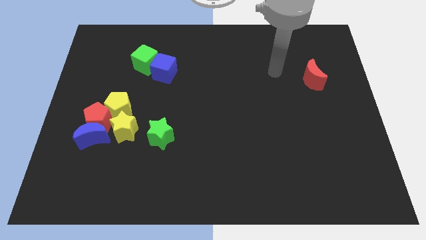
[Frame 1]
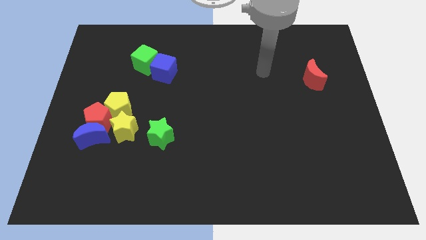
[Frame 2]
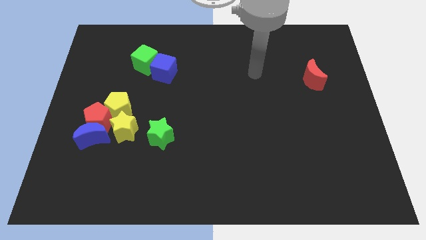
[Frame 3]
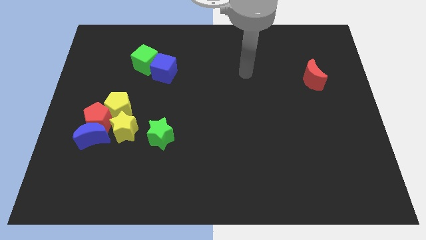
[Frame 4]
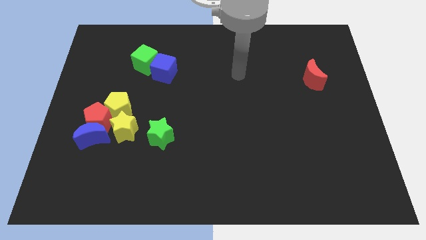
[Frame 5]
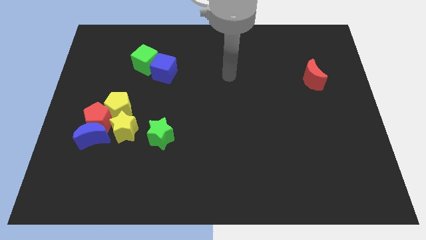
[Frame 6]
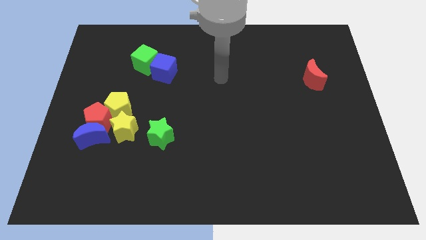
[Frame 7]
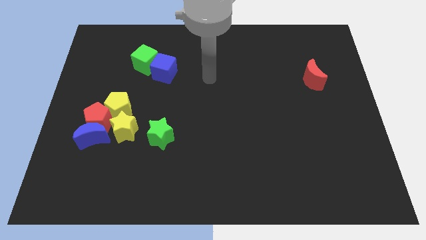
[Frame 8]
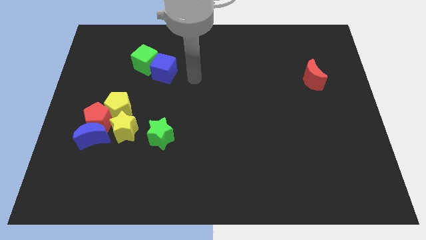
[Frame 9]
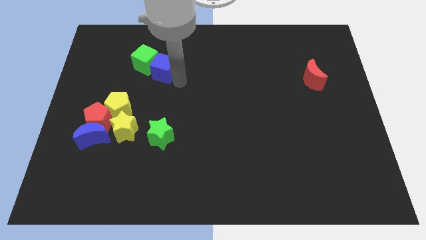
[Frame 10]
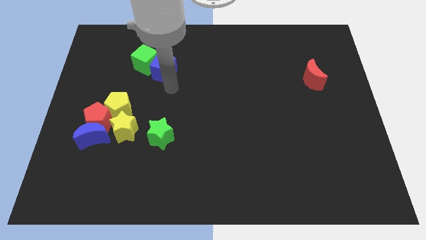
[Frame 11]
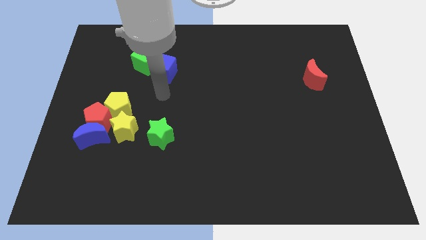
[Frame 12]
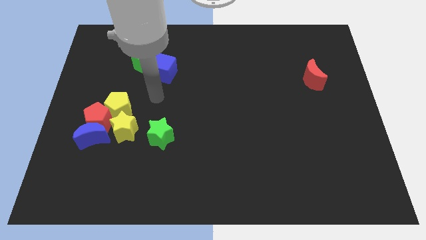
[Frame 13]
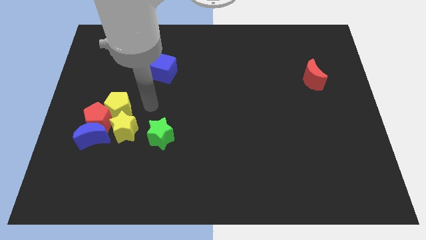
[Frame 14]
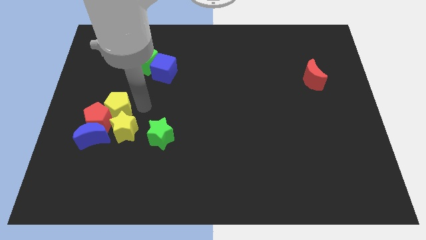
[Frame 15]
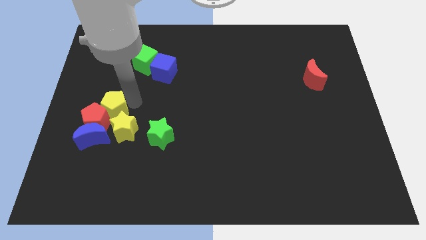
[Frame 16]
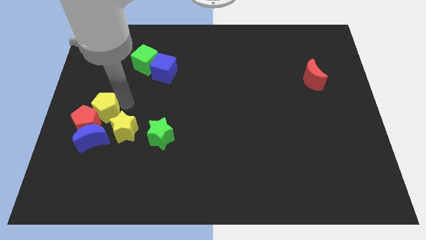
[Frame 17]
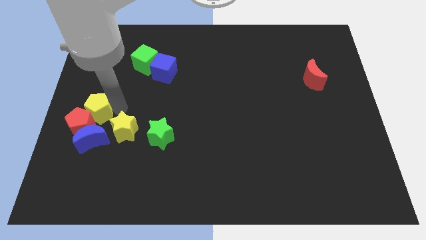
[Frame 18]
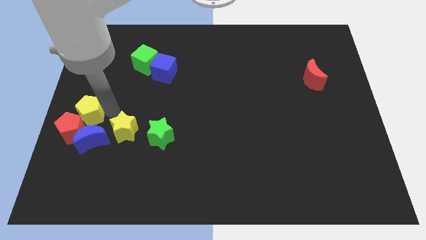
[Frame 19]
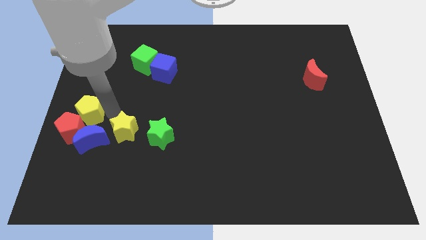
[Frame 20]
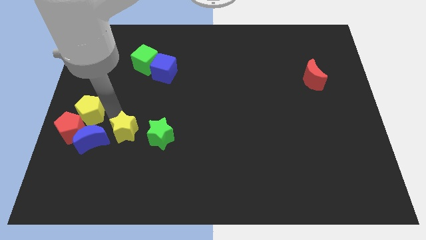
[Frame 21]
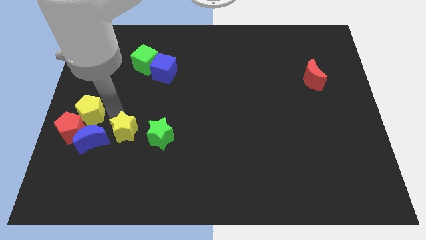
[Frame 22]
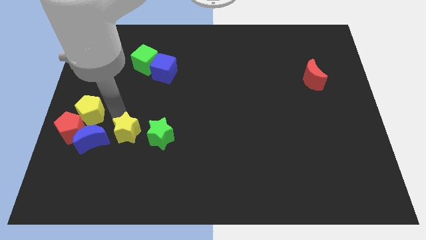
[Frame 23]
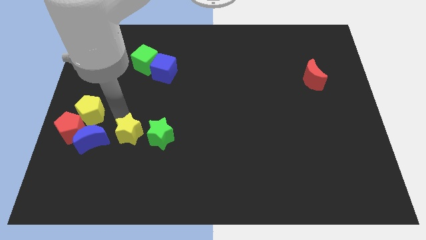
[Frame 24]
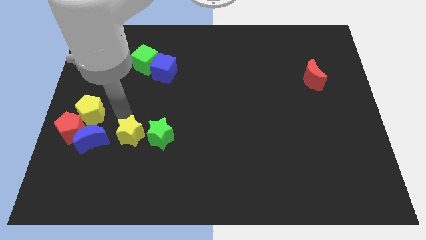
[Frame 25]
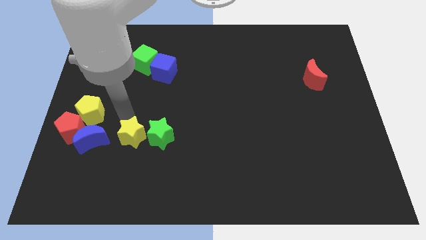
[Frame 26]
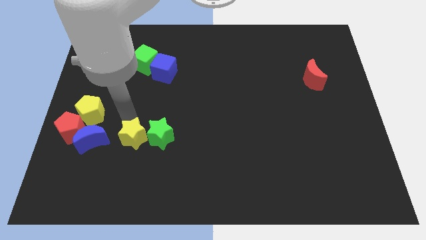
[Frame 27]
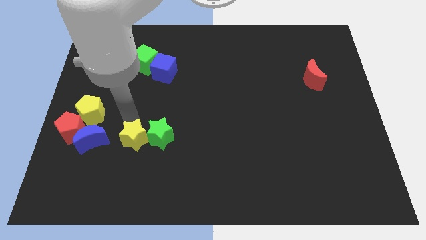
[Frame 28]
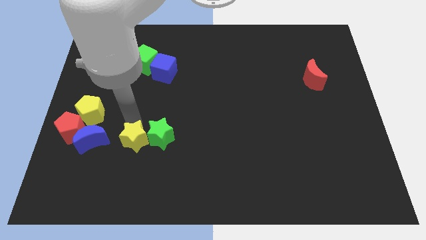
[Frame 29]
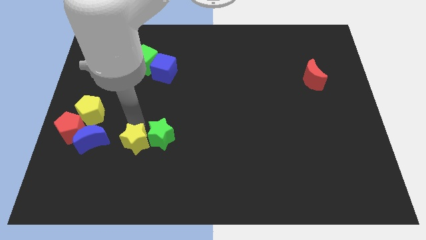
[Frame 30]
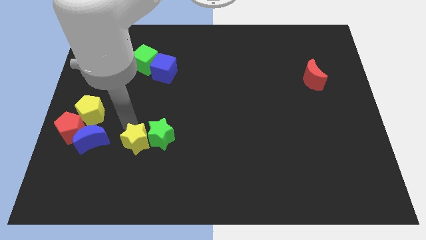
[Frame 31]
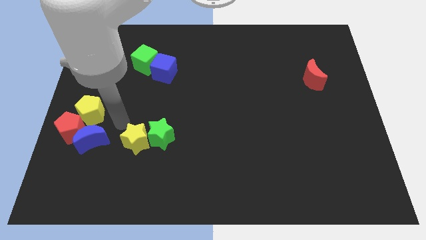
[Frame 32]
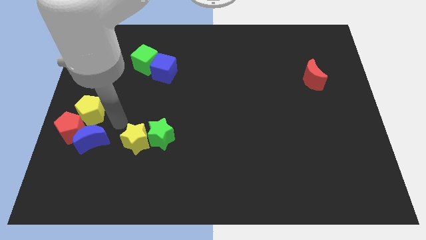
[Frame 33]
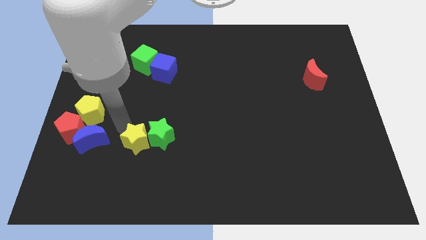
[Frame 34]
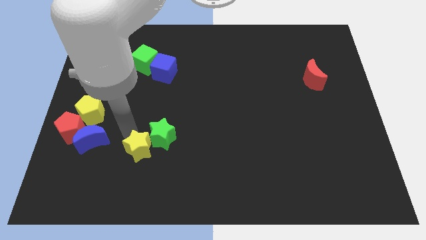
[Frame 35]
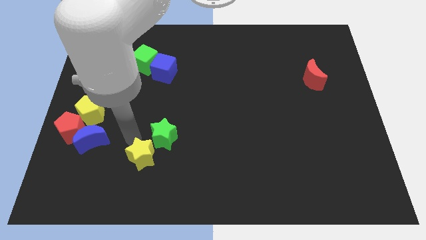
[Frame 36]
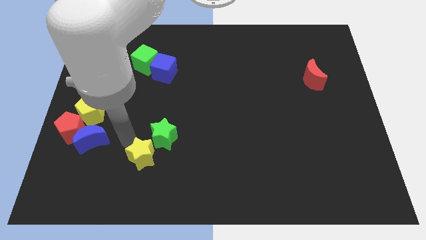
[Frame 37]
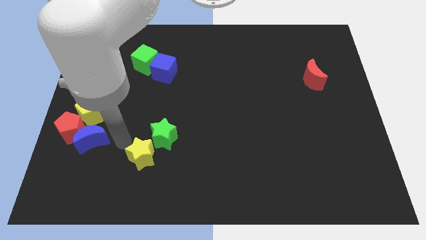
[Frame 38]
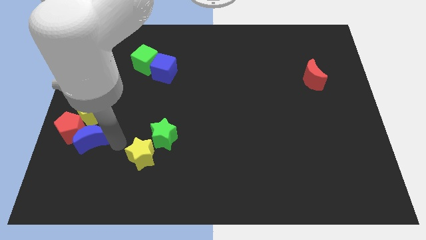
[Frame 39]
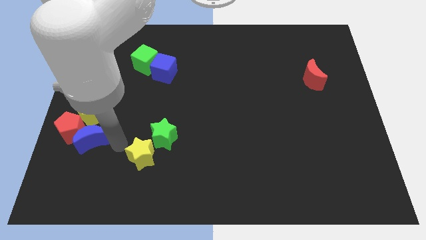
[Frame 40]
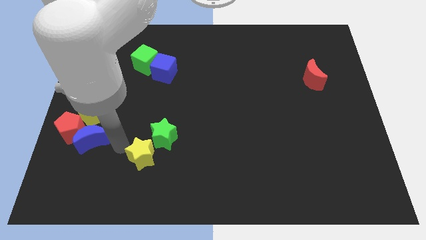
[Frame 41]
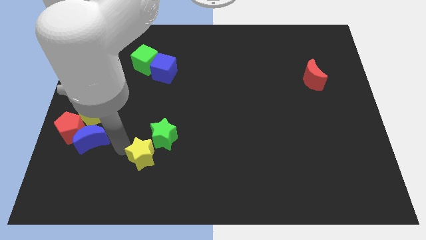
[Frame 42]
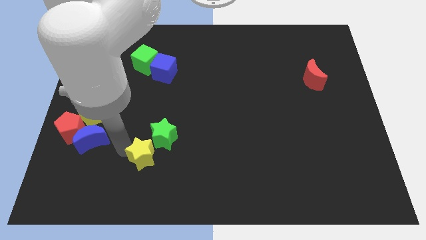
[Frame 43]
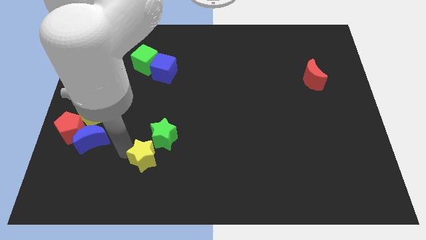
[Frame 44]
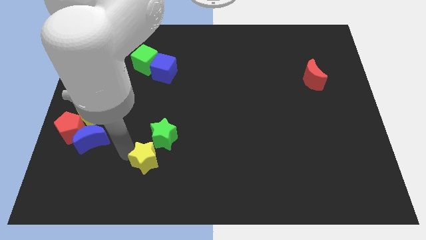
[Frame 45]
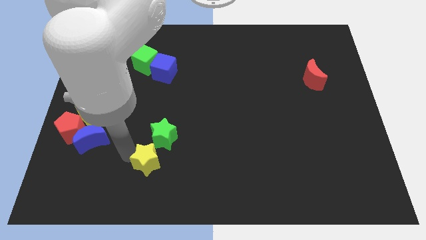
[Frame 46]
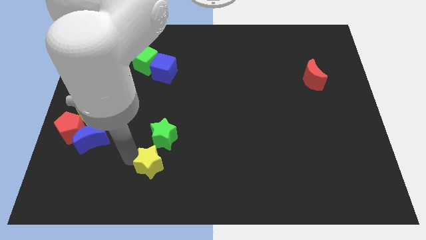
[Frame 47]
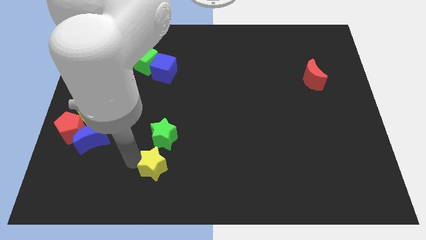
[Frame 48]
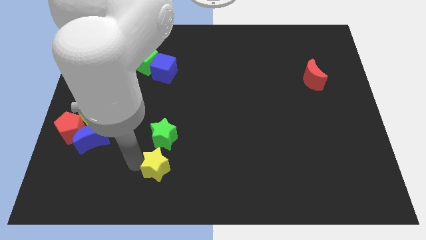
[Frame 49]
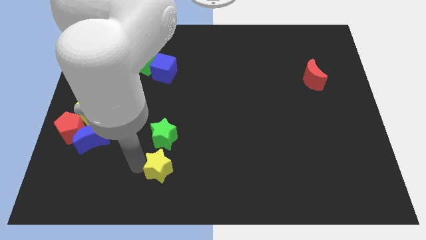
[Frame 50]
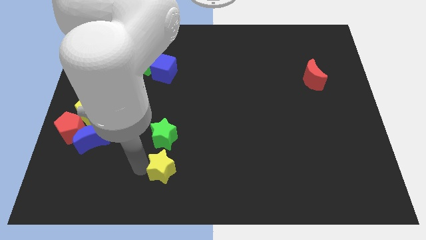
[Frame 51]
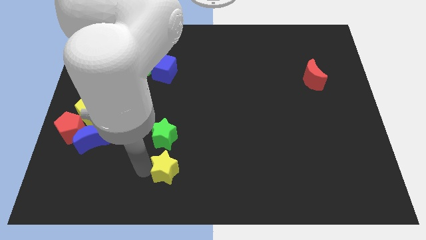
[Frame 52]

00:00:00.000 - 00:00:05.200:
slide the yellow star to the bottom

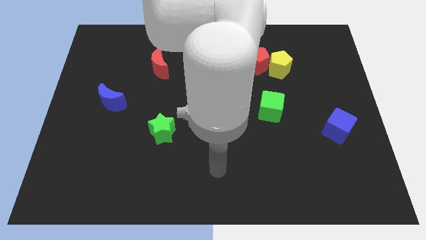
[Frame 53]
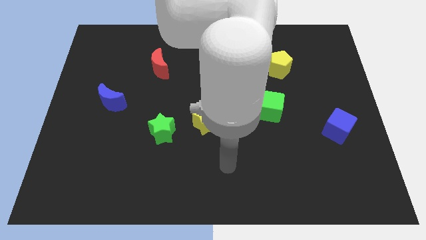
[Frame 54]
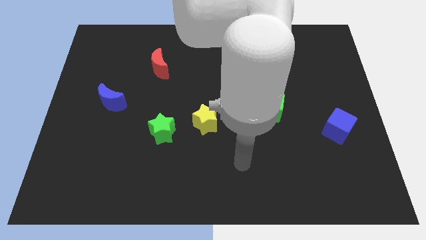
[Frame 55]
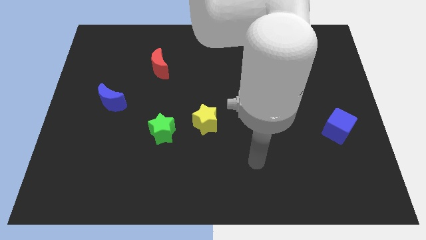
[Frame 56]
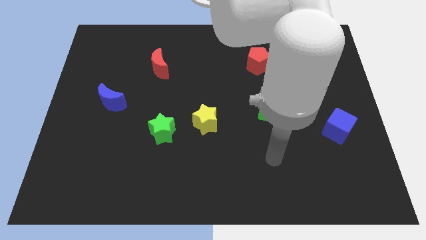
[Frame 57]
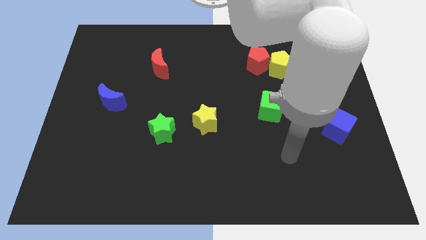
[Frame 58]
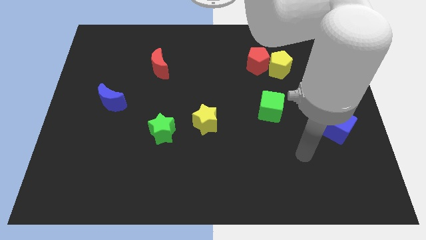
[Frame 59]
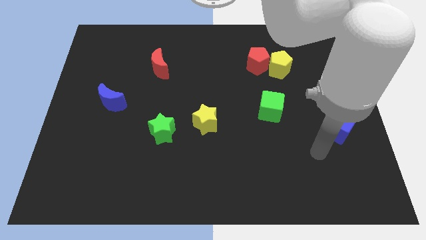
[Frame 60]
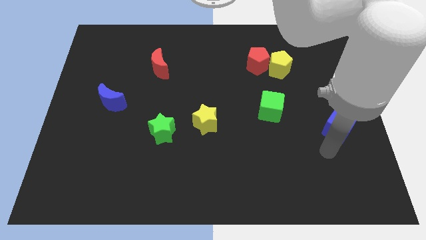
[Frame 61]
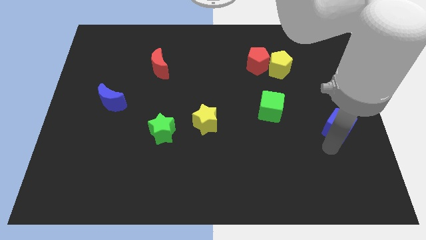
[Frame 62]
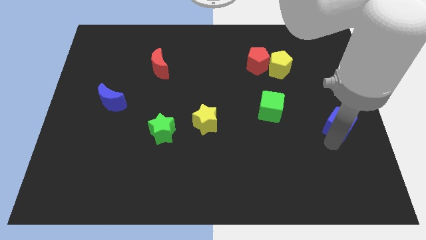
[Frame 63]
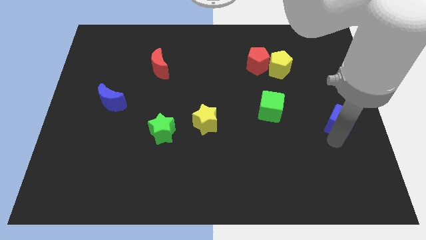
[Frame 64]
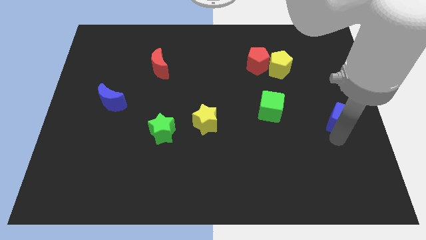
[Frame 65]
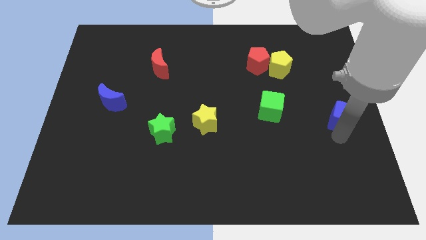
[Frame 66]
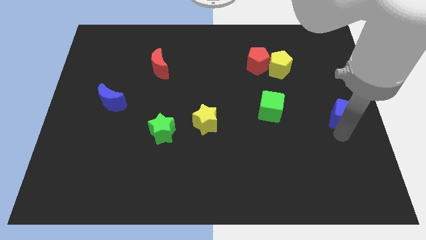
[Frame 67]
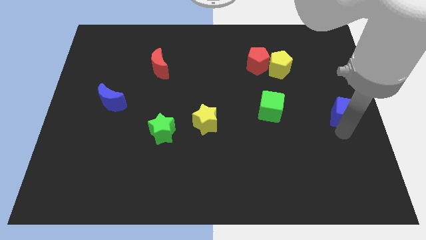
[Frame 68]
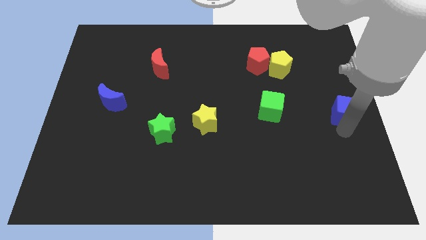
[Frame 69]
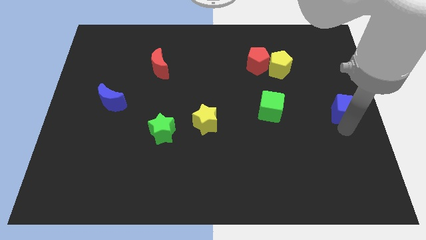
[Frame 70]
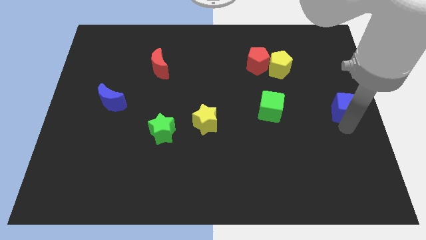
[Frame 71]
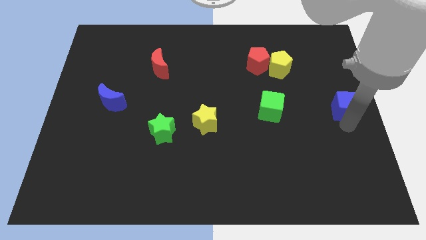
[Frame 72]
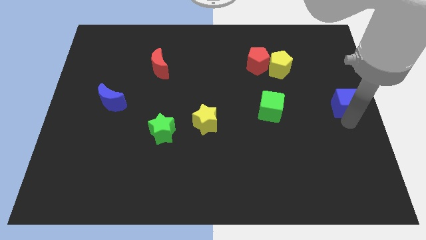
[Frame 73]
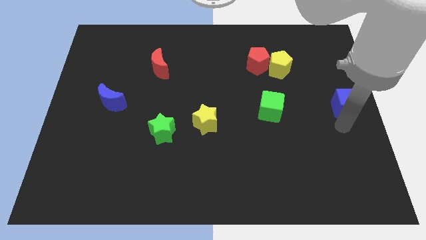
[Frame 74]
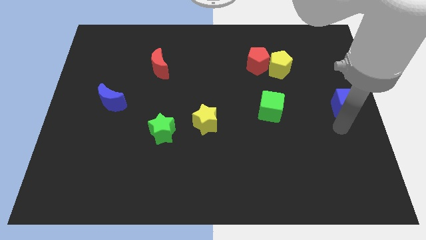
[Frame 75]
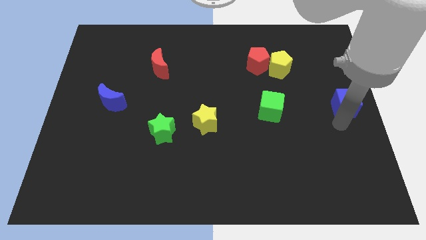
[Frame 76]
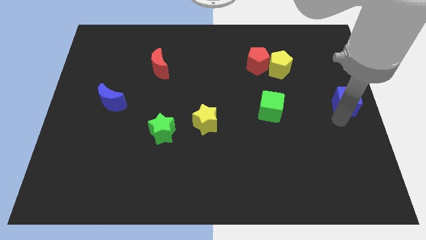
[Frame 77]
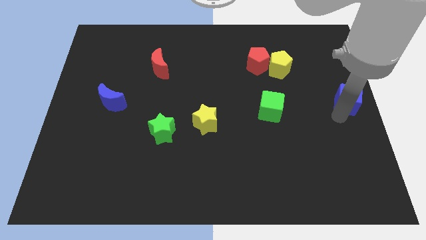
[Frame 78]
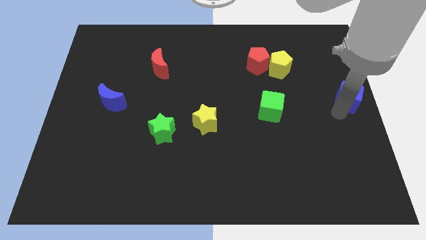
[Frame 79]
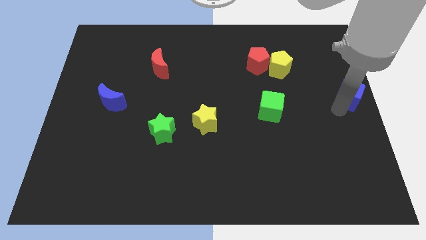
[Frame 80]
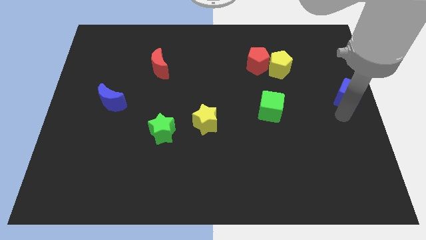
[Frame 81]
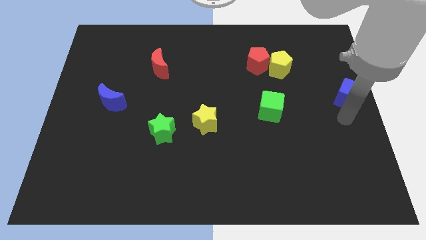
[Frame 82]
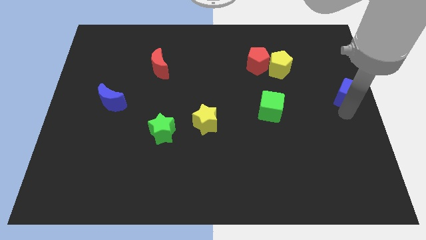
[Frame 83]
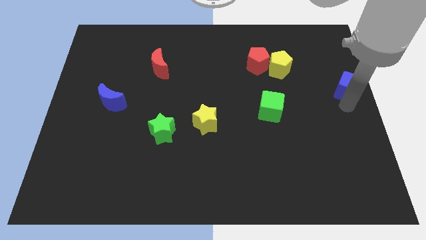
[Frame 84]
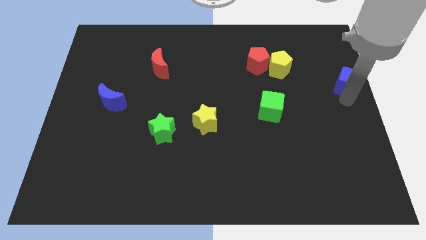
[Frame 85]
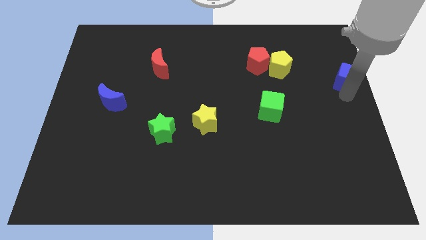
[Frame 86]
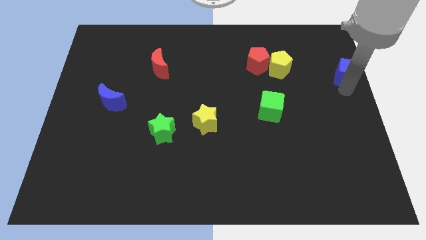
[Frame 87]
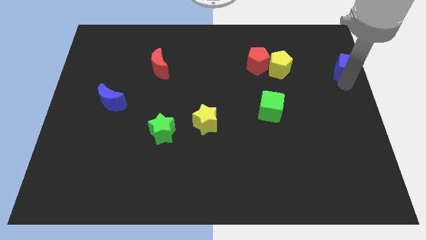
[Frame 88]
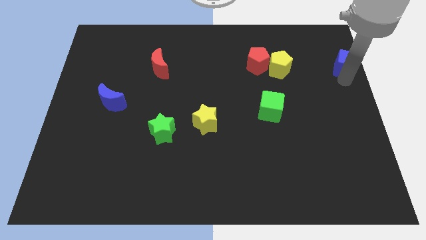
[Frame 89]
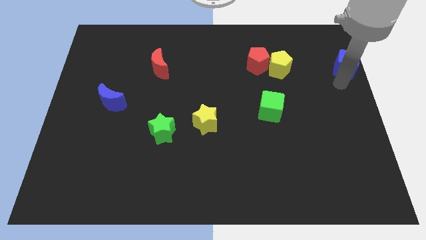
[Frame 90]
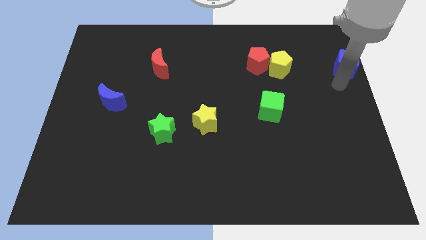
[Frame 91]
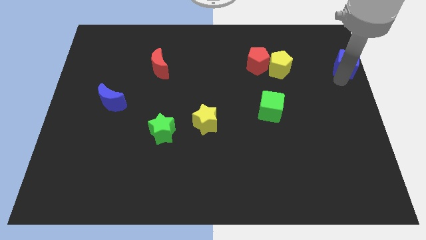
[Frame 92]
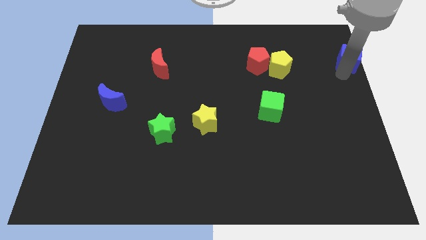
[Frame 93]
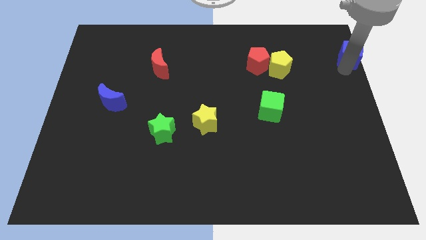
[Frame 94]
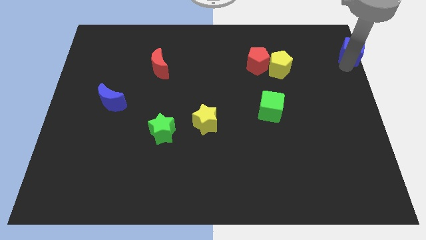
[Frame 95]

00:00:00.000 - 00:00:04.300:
put the blue cube to the upper right corner
